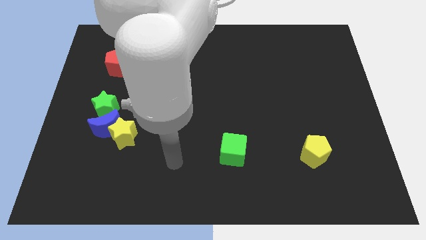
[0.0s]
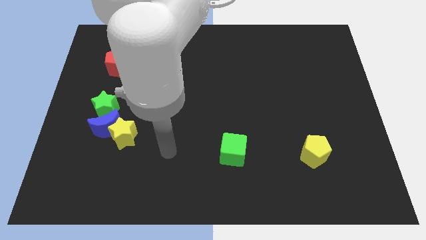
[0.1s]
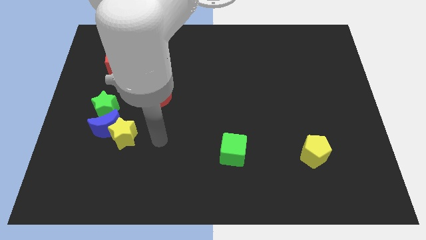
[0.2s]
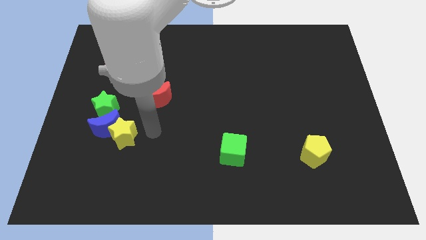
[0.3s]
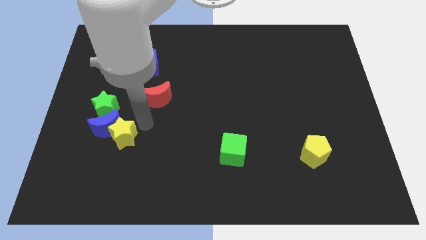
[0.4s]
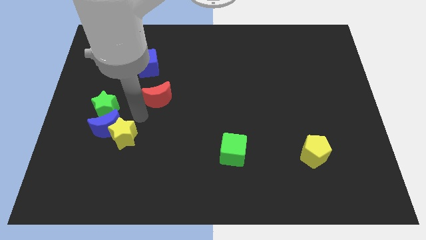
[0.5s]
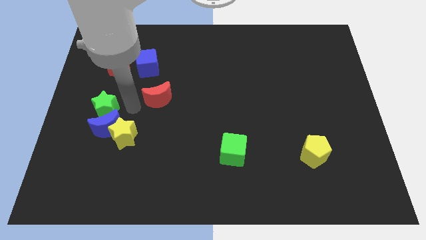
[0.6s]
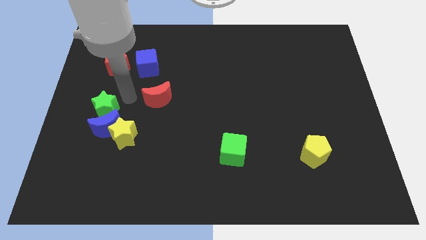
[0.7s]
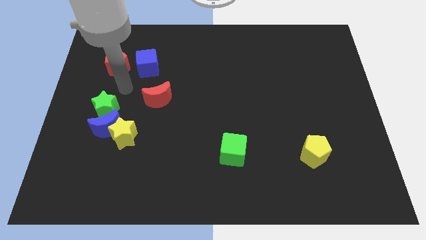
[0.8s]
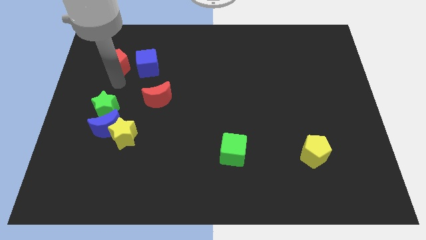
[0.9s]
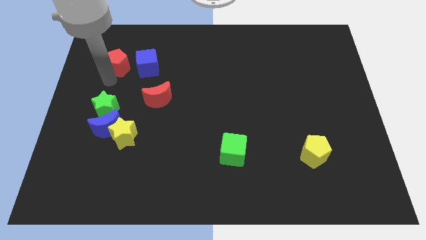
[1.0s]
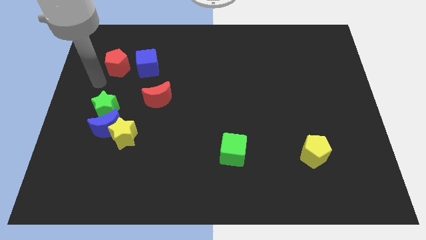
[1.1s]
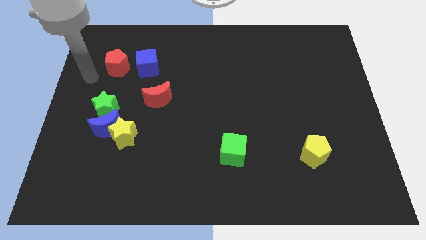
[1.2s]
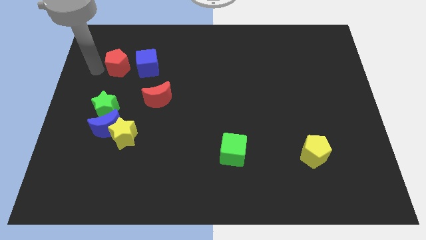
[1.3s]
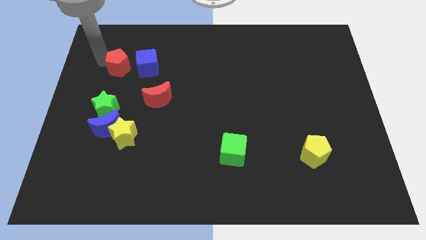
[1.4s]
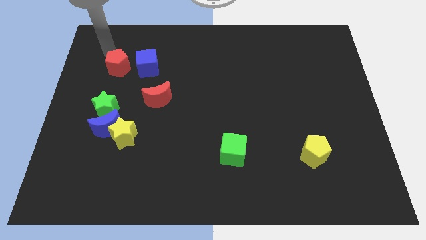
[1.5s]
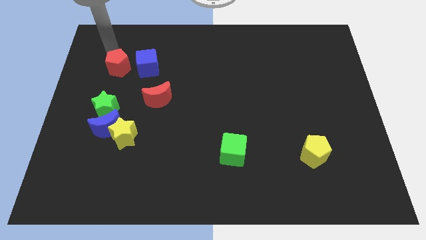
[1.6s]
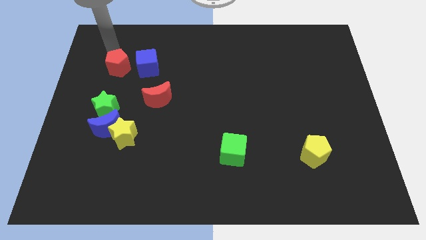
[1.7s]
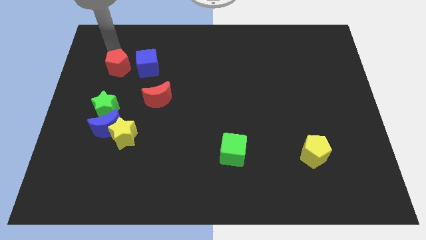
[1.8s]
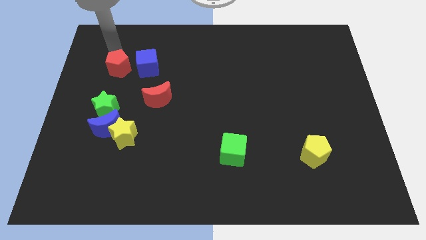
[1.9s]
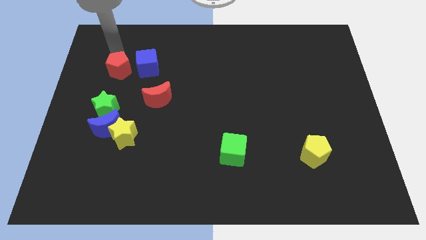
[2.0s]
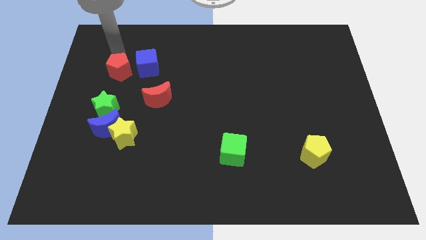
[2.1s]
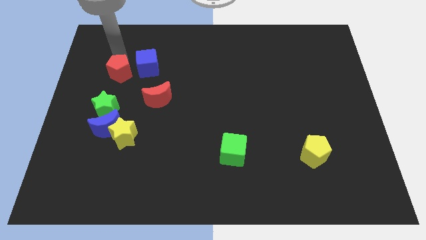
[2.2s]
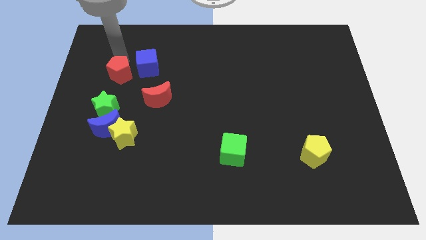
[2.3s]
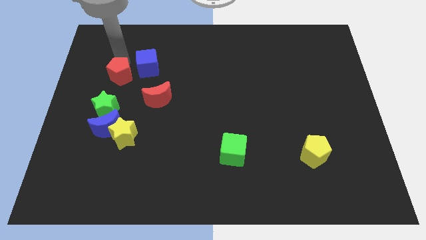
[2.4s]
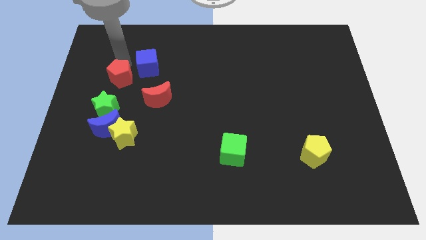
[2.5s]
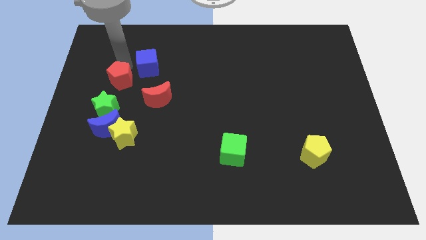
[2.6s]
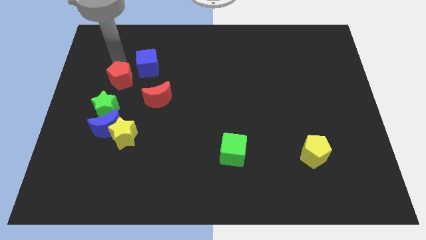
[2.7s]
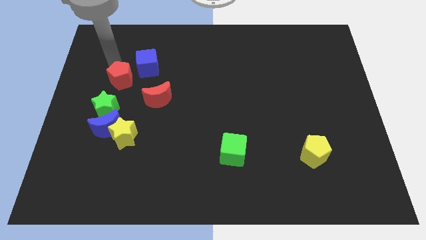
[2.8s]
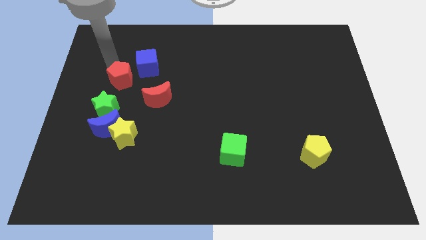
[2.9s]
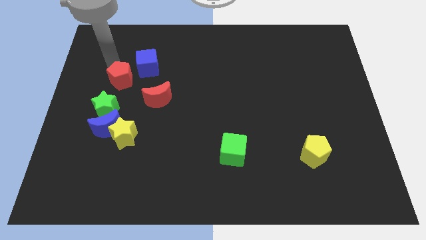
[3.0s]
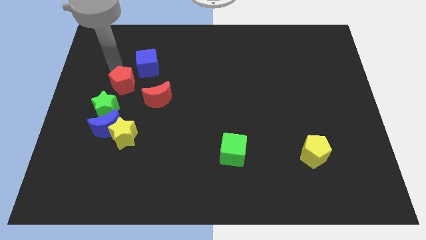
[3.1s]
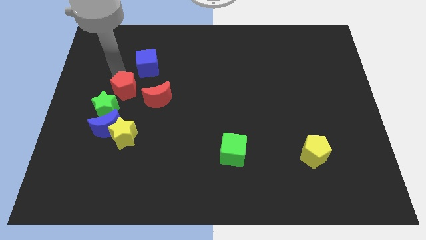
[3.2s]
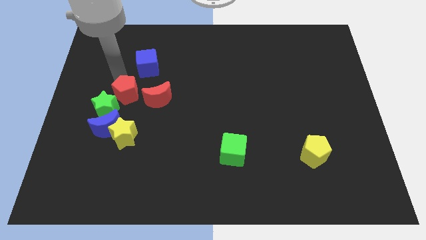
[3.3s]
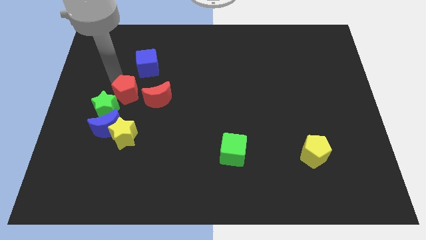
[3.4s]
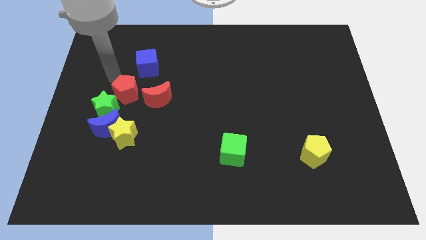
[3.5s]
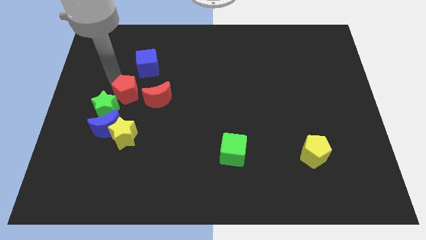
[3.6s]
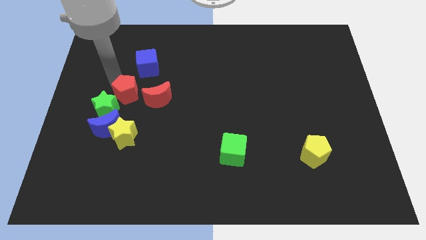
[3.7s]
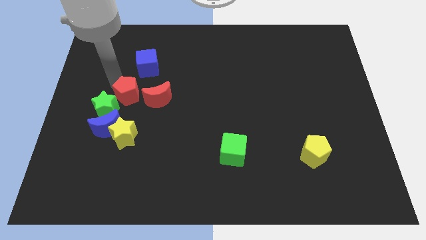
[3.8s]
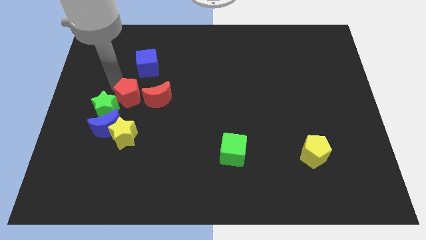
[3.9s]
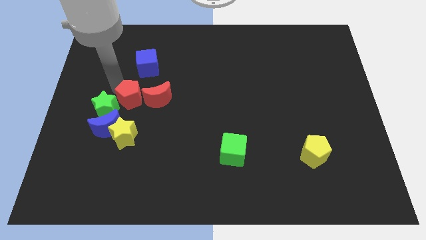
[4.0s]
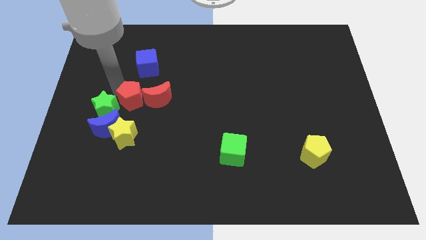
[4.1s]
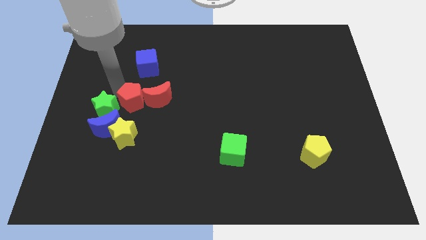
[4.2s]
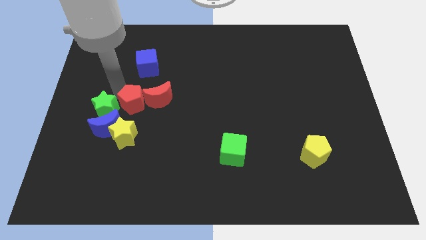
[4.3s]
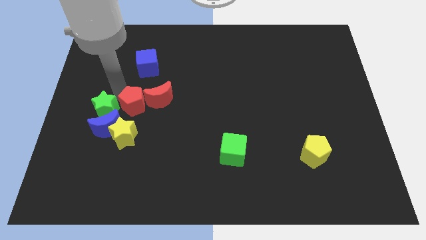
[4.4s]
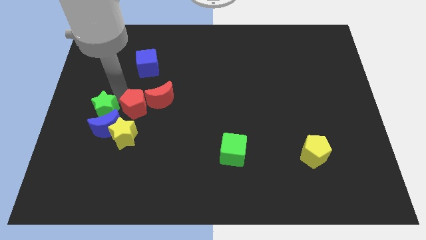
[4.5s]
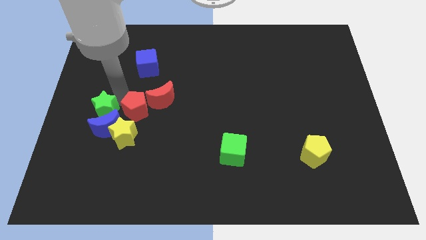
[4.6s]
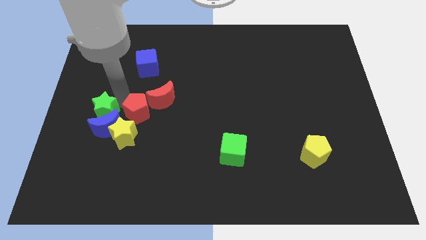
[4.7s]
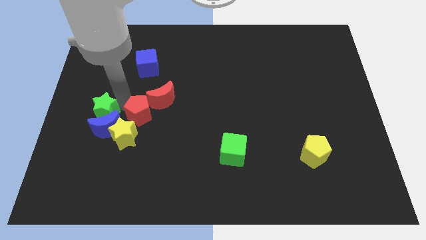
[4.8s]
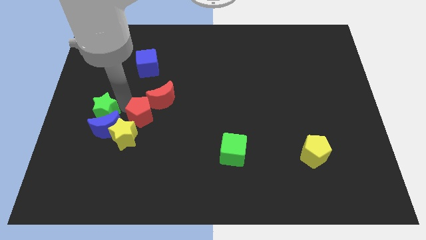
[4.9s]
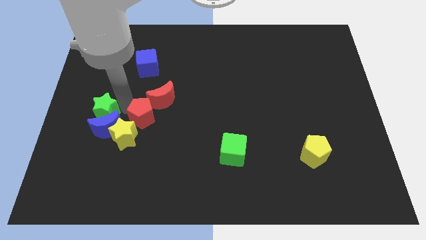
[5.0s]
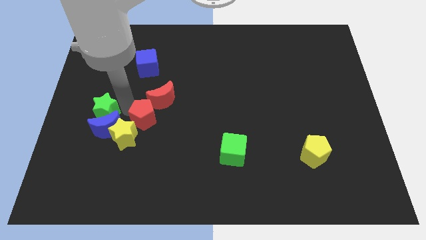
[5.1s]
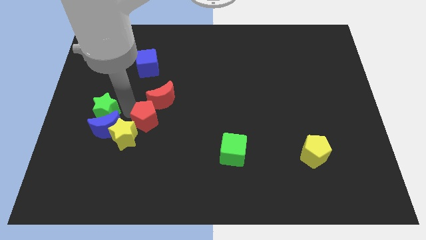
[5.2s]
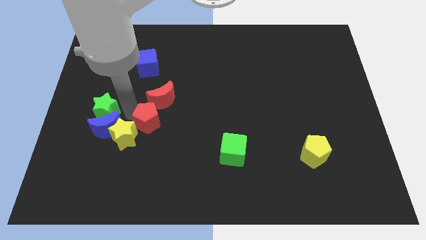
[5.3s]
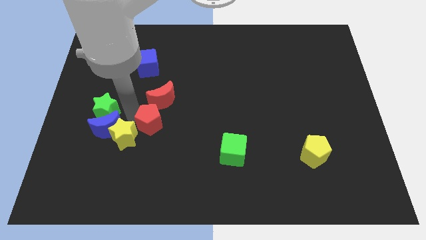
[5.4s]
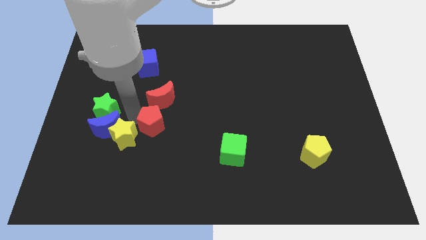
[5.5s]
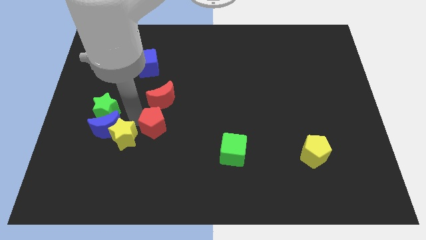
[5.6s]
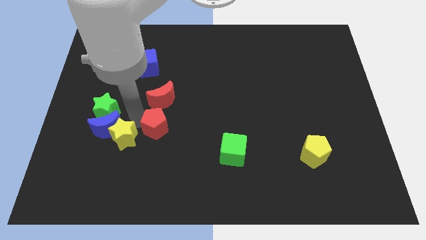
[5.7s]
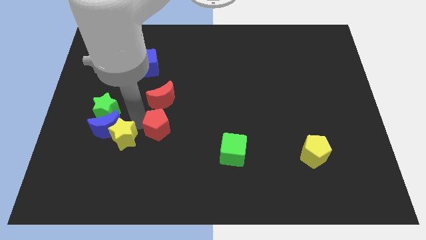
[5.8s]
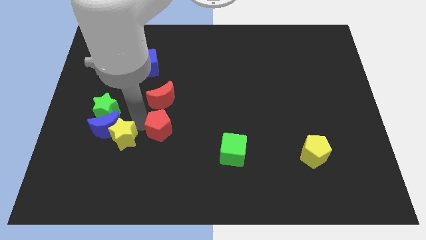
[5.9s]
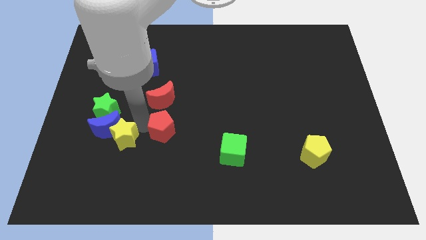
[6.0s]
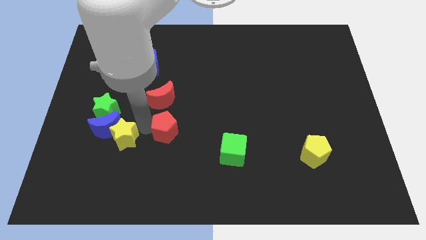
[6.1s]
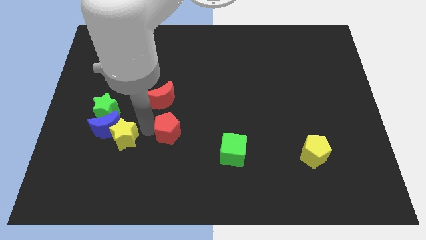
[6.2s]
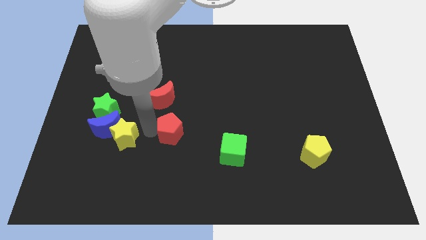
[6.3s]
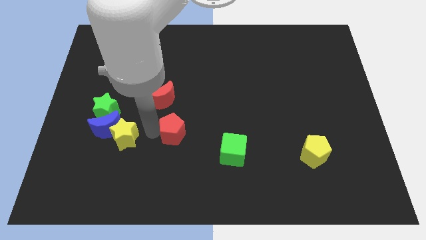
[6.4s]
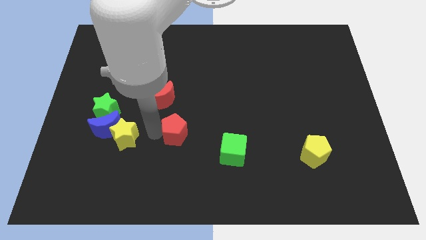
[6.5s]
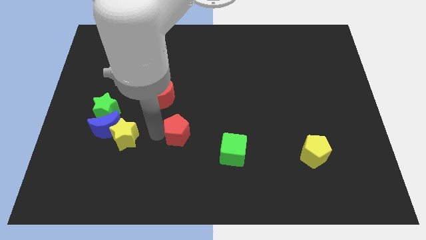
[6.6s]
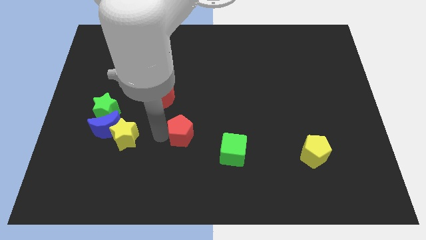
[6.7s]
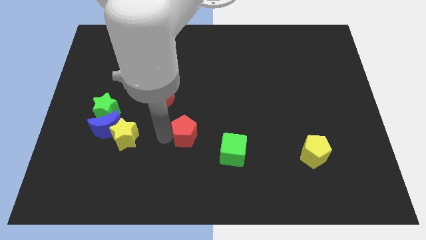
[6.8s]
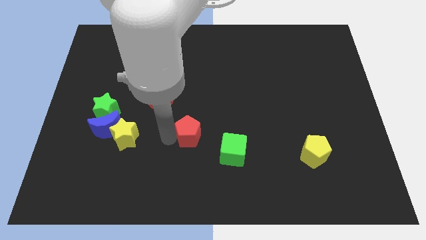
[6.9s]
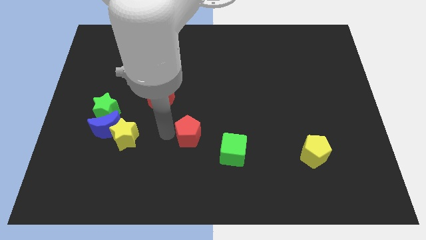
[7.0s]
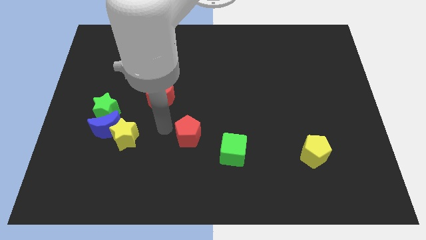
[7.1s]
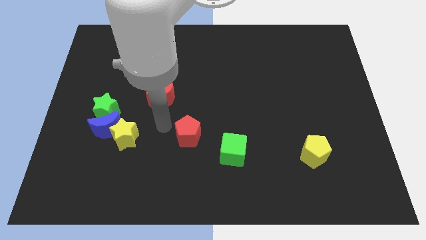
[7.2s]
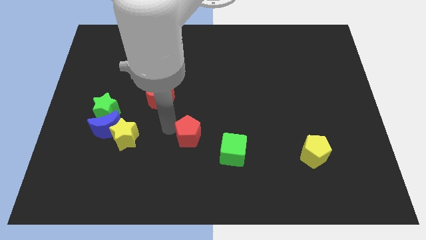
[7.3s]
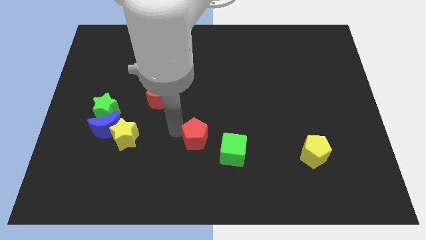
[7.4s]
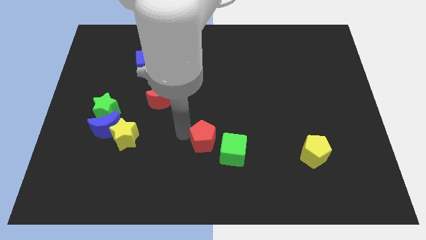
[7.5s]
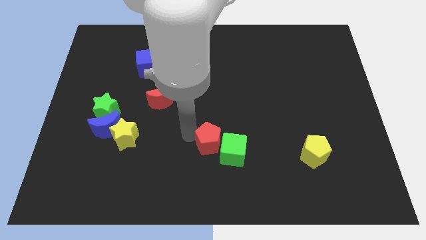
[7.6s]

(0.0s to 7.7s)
move the red pentagon next to the green cube
